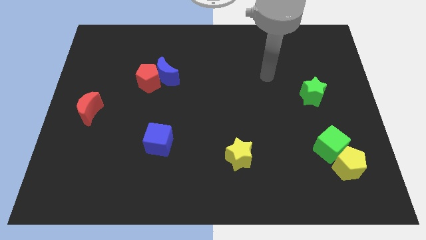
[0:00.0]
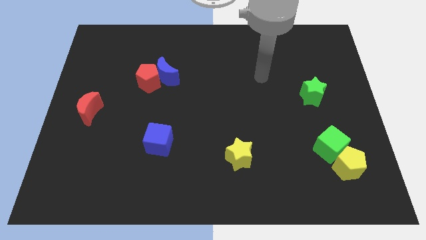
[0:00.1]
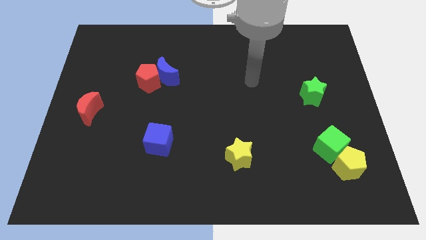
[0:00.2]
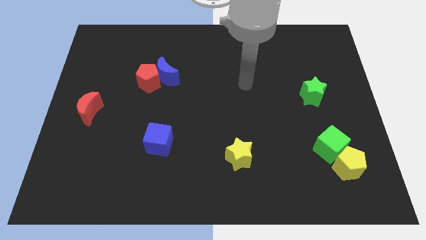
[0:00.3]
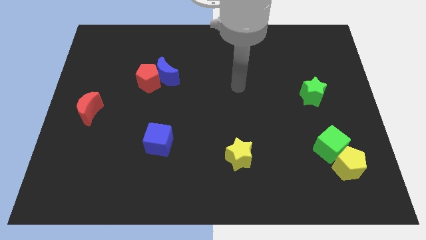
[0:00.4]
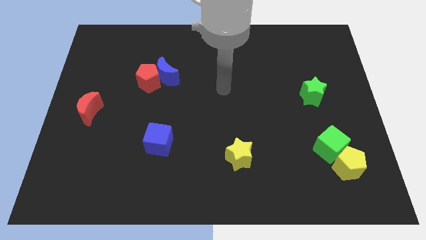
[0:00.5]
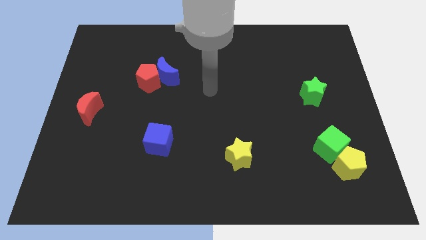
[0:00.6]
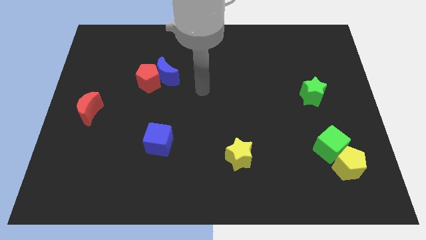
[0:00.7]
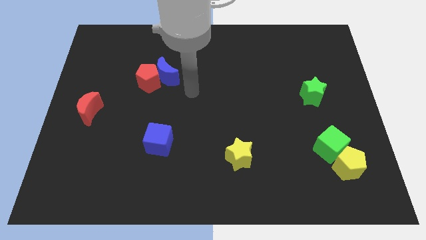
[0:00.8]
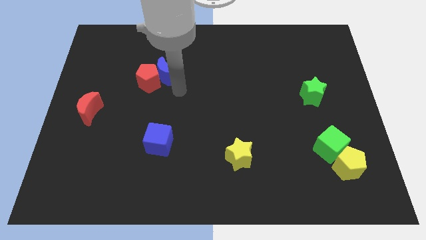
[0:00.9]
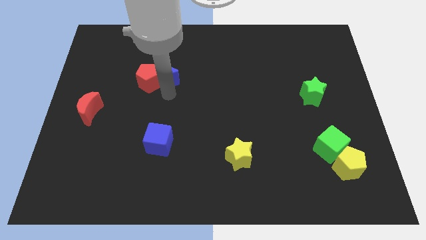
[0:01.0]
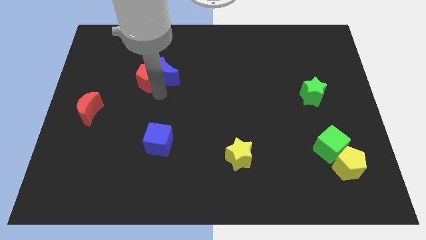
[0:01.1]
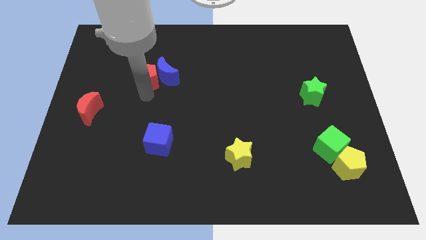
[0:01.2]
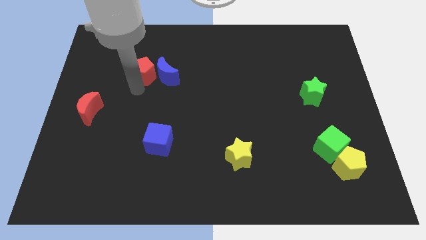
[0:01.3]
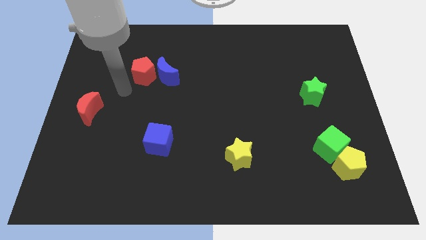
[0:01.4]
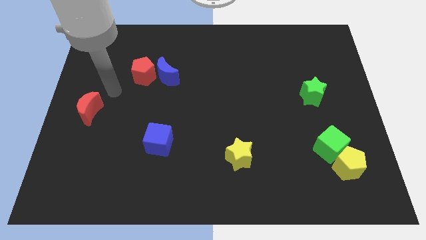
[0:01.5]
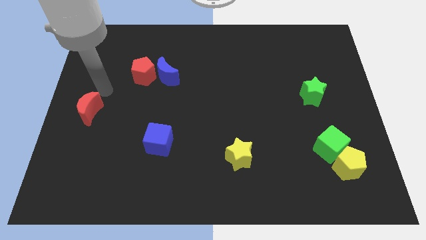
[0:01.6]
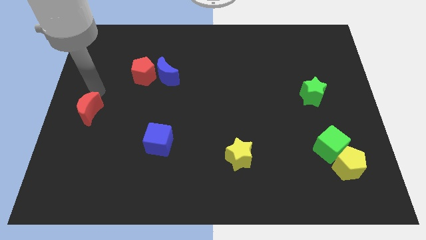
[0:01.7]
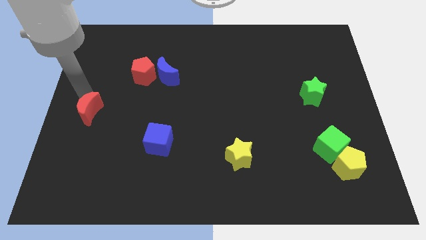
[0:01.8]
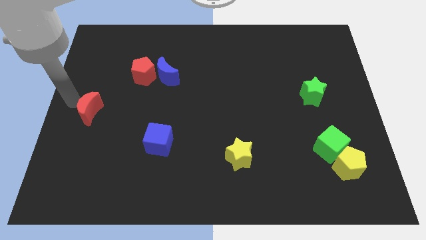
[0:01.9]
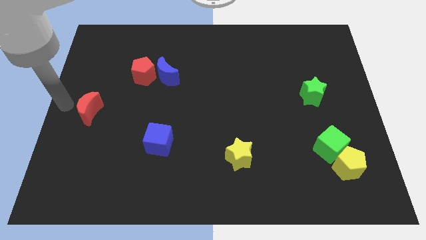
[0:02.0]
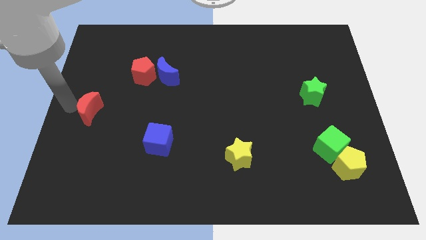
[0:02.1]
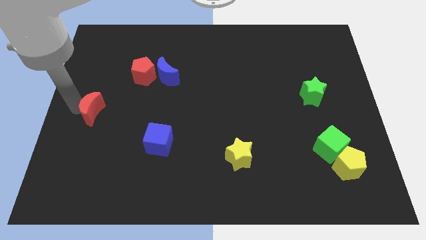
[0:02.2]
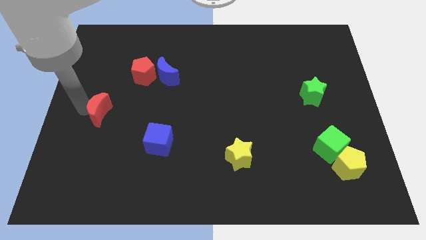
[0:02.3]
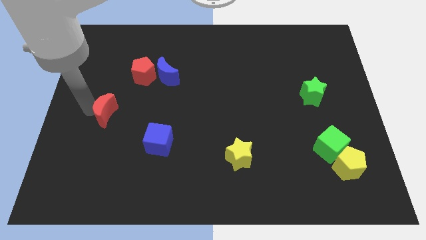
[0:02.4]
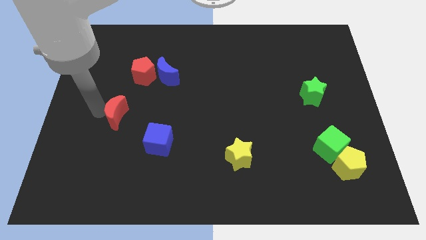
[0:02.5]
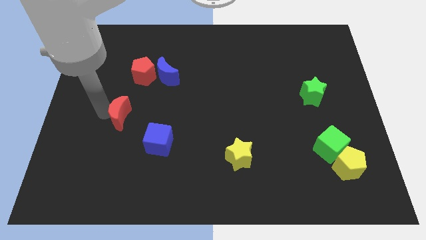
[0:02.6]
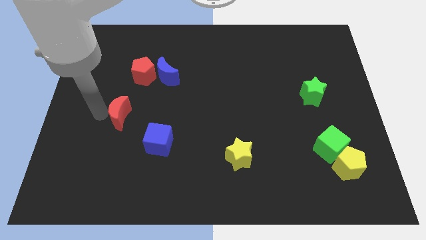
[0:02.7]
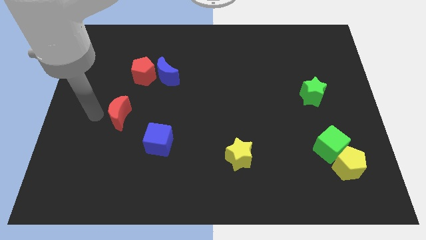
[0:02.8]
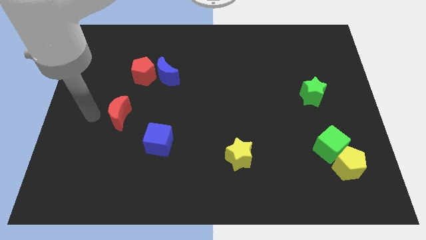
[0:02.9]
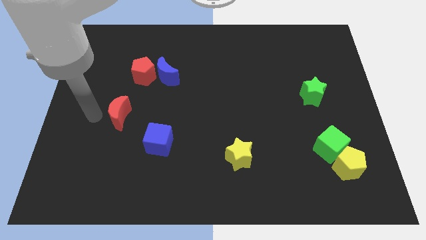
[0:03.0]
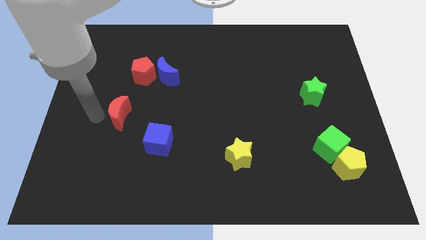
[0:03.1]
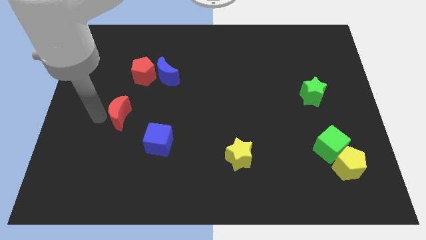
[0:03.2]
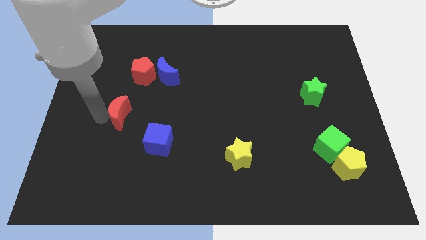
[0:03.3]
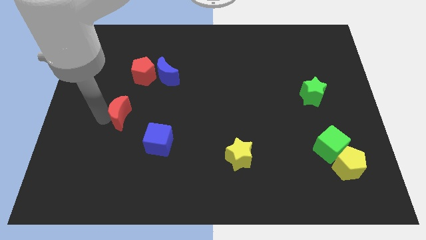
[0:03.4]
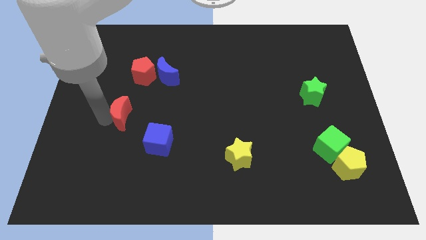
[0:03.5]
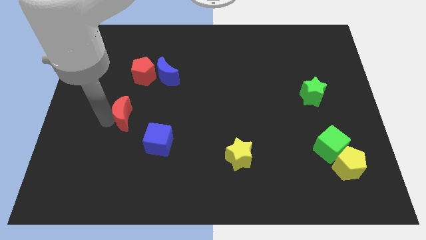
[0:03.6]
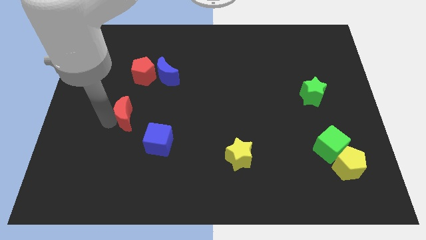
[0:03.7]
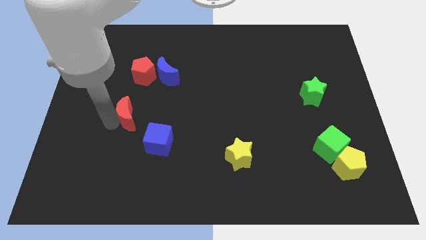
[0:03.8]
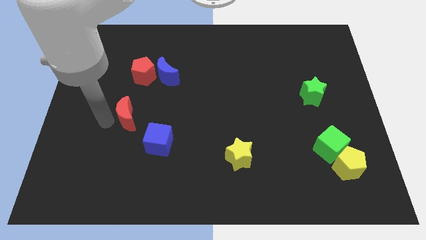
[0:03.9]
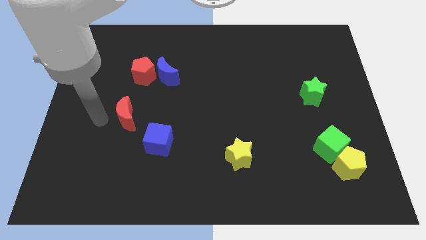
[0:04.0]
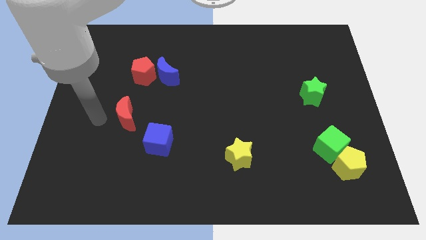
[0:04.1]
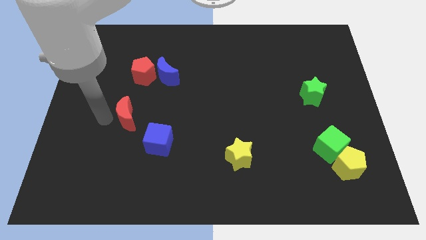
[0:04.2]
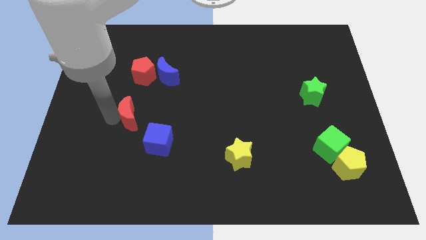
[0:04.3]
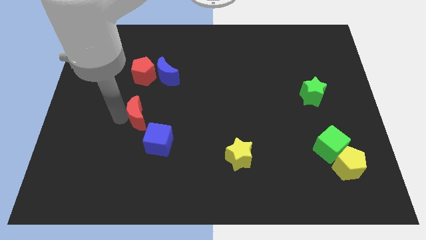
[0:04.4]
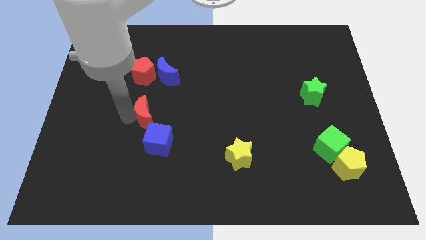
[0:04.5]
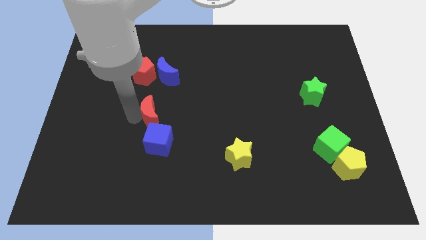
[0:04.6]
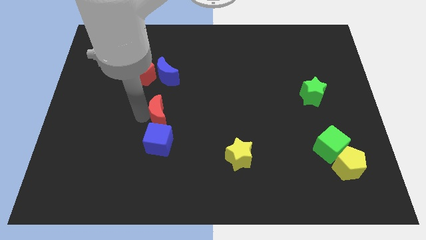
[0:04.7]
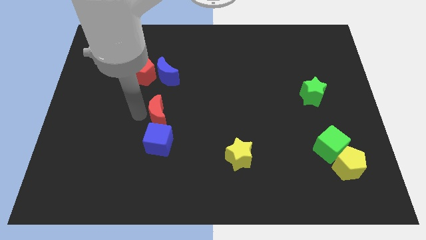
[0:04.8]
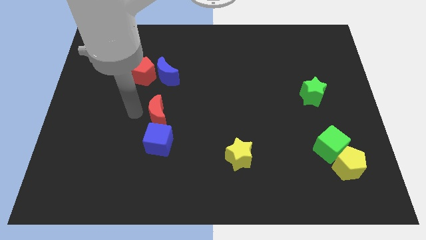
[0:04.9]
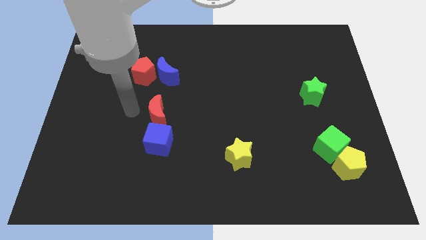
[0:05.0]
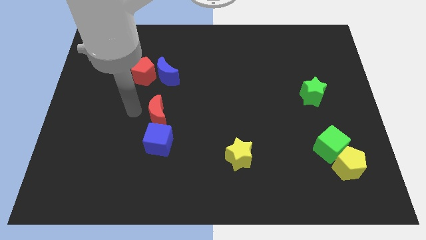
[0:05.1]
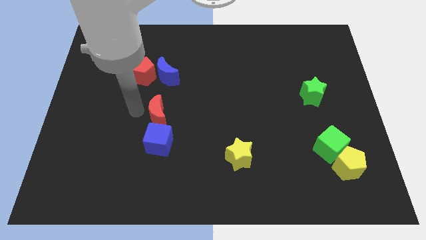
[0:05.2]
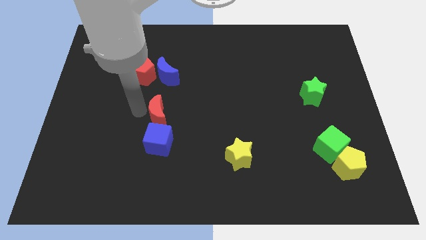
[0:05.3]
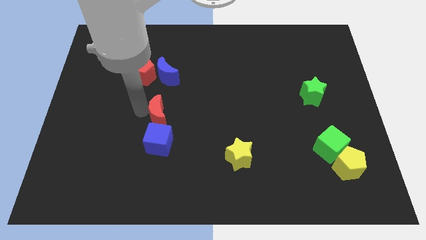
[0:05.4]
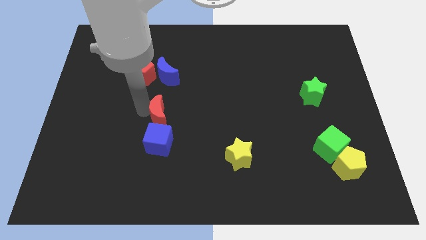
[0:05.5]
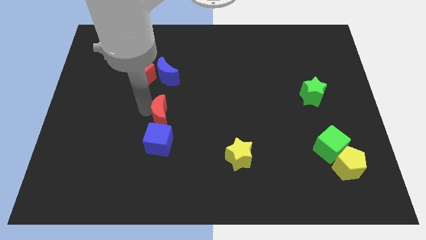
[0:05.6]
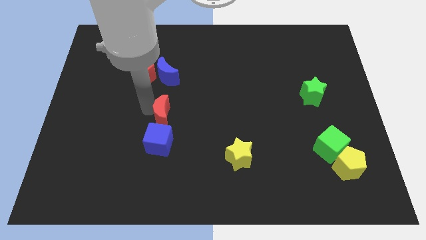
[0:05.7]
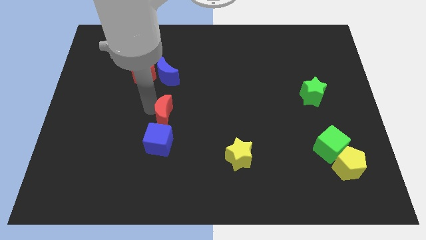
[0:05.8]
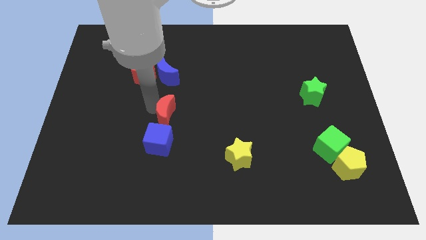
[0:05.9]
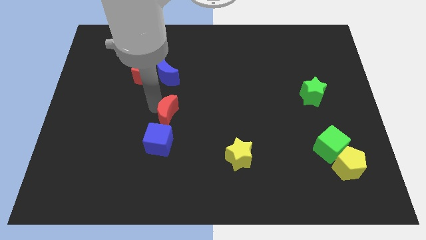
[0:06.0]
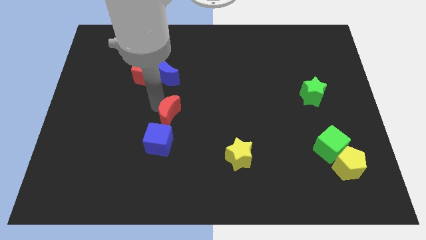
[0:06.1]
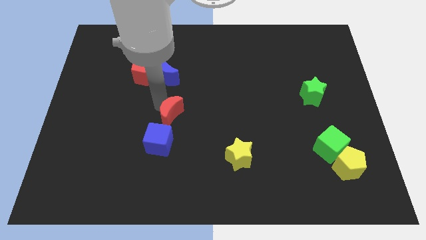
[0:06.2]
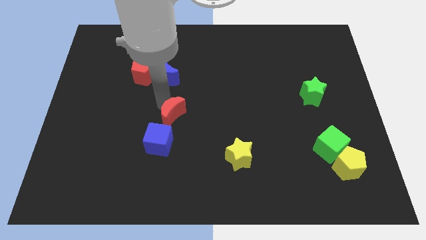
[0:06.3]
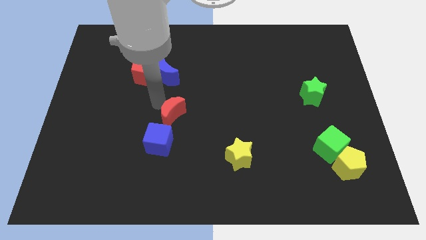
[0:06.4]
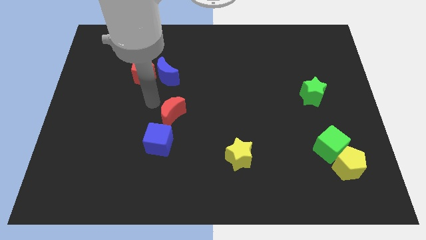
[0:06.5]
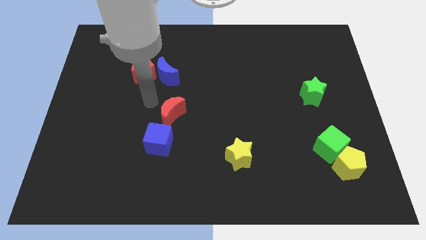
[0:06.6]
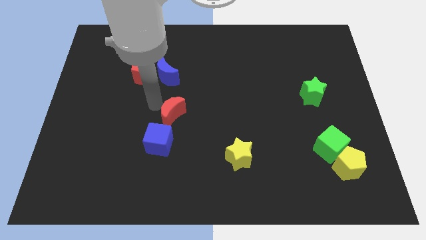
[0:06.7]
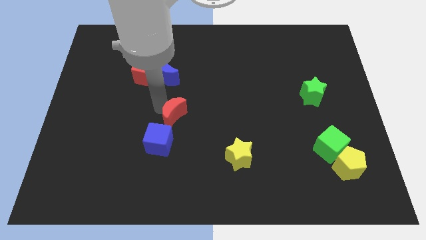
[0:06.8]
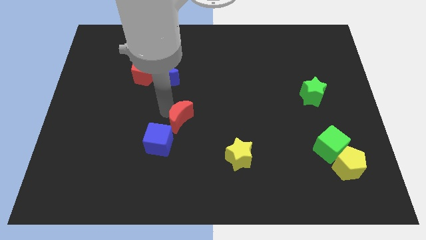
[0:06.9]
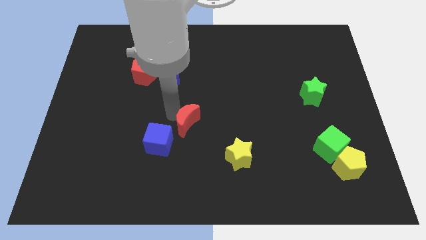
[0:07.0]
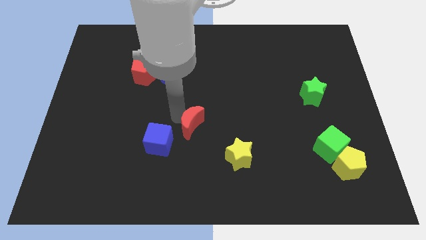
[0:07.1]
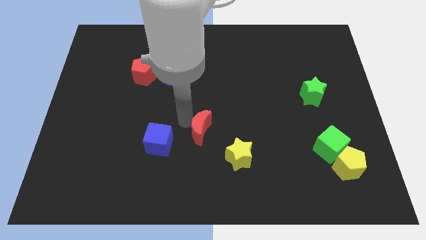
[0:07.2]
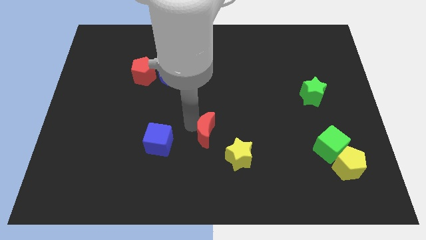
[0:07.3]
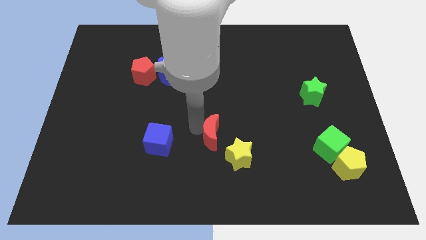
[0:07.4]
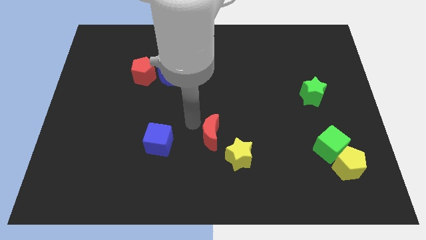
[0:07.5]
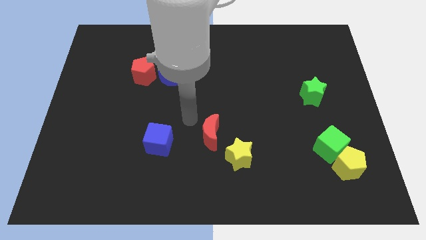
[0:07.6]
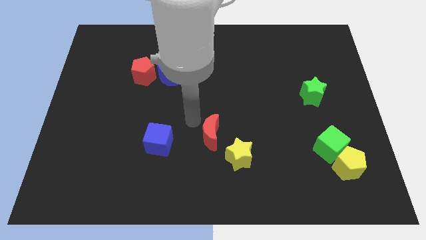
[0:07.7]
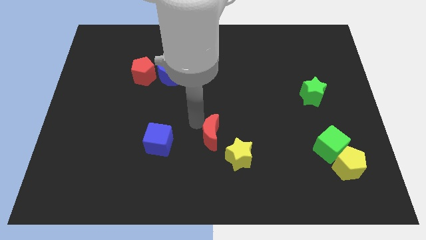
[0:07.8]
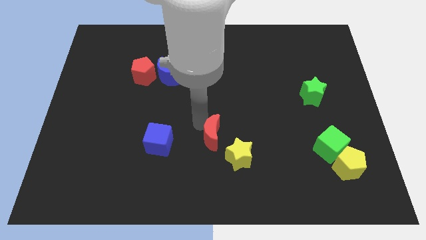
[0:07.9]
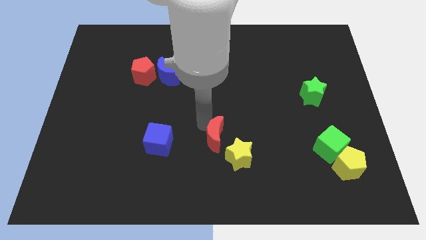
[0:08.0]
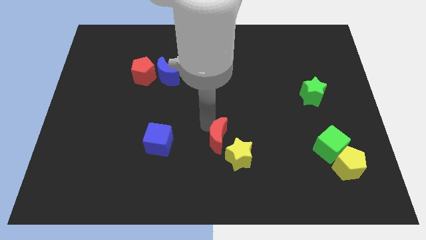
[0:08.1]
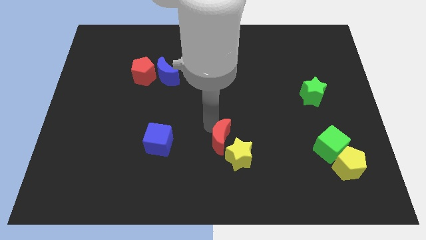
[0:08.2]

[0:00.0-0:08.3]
move the red moon close to the yellow star
